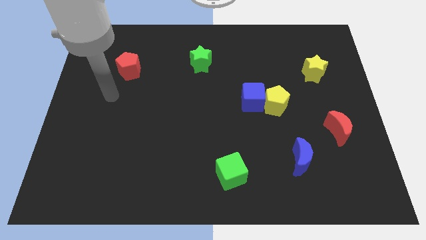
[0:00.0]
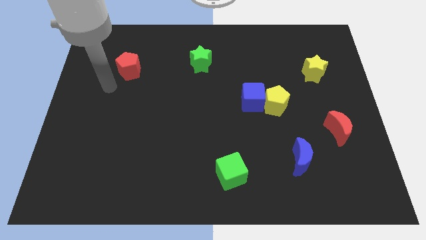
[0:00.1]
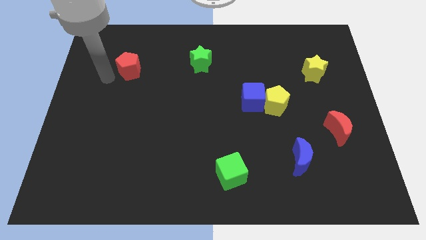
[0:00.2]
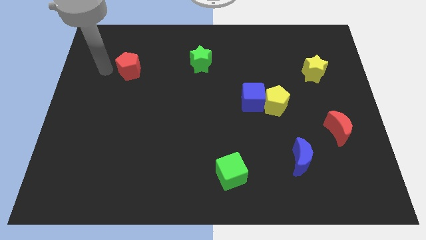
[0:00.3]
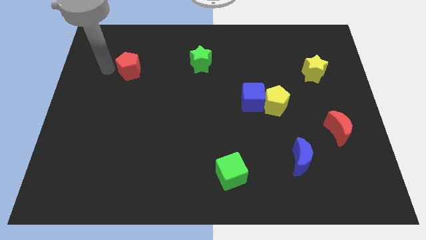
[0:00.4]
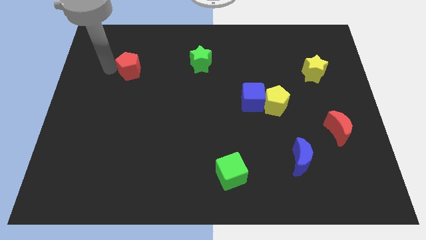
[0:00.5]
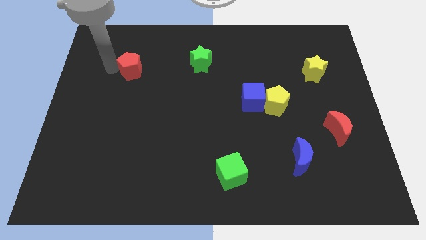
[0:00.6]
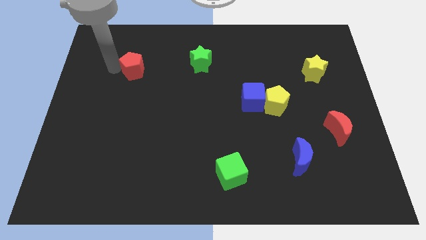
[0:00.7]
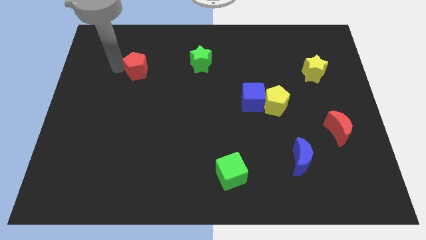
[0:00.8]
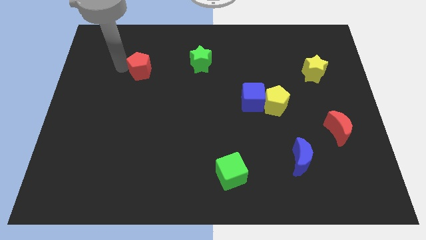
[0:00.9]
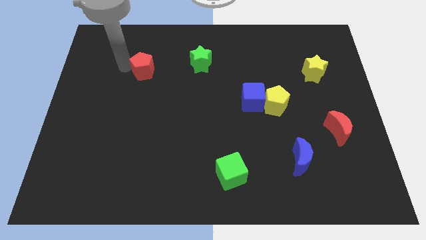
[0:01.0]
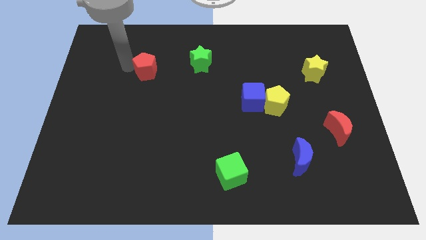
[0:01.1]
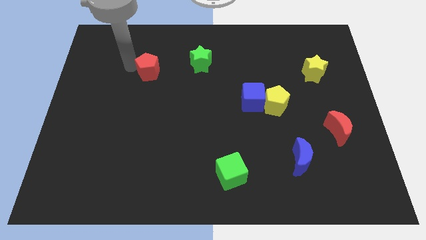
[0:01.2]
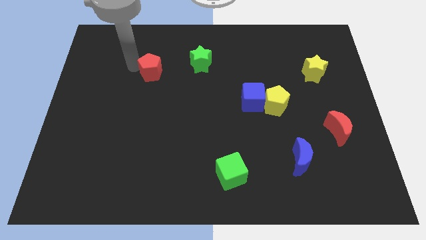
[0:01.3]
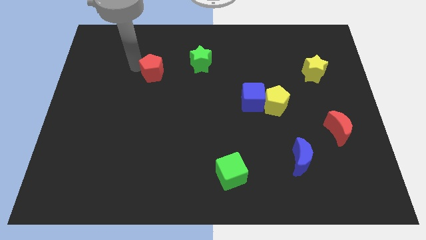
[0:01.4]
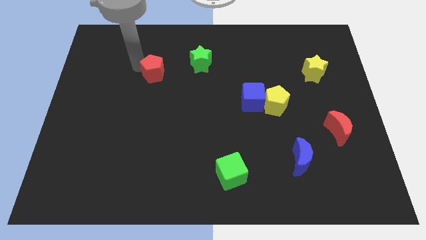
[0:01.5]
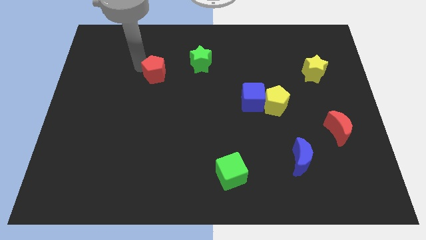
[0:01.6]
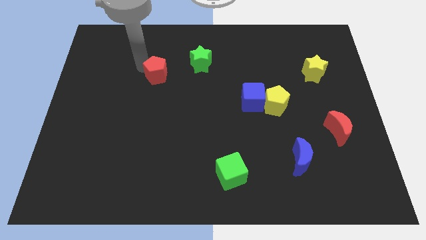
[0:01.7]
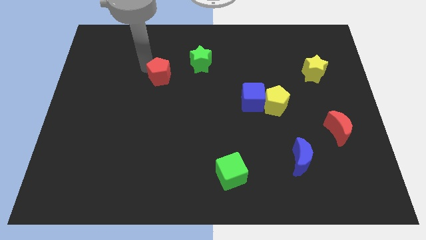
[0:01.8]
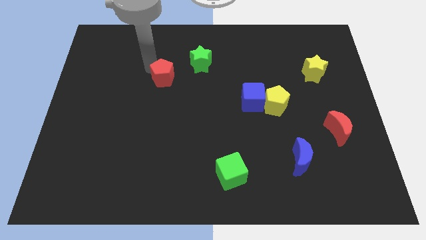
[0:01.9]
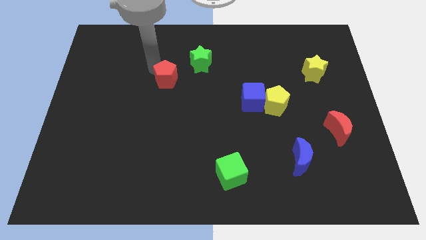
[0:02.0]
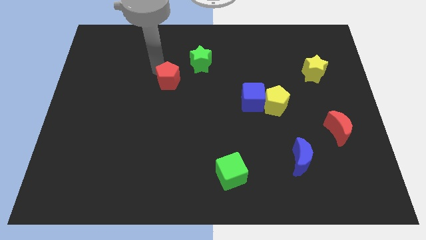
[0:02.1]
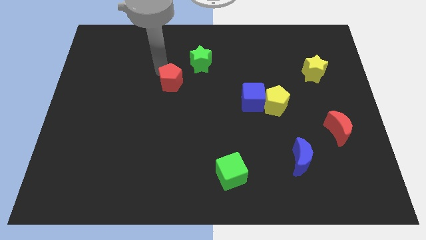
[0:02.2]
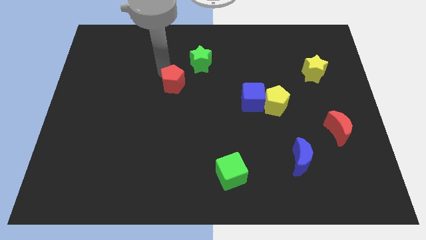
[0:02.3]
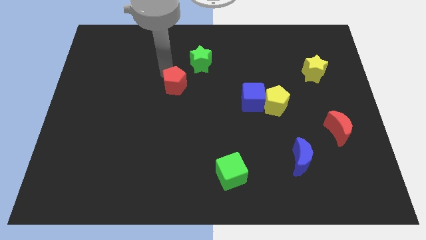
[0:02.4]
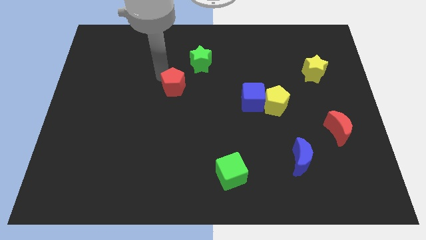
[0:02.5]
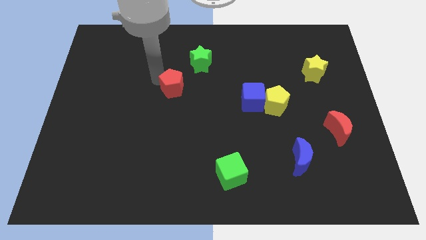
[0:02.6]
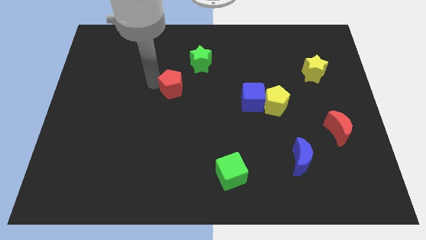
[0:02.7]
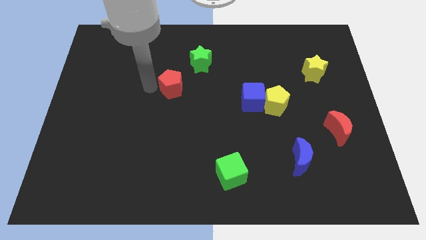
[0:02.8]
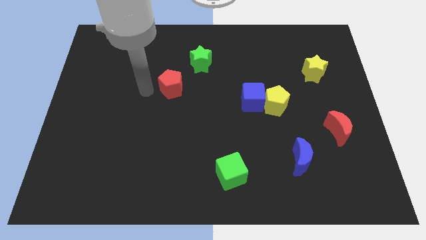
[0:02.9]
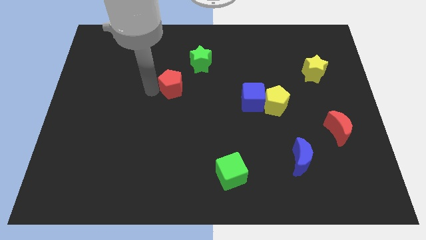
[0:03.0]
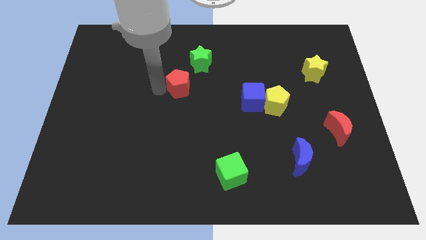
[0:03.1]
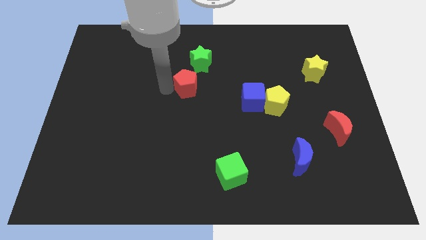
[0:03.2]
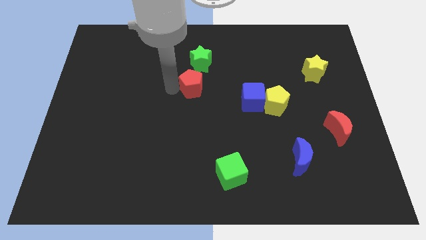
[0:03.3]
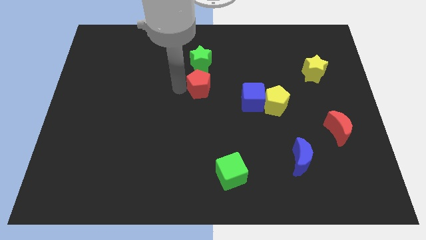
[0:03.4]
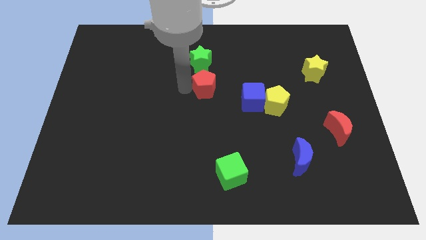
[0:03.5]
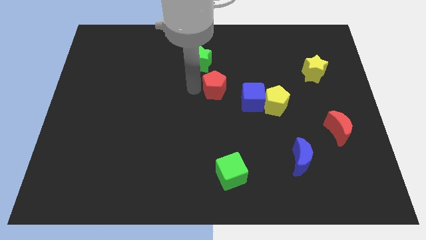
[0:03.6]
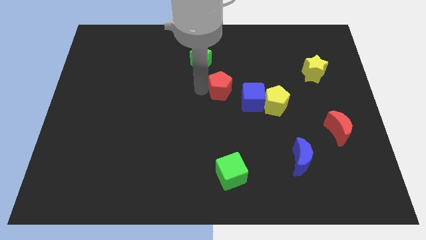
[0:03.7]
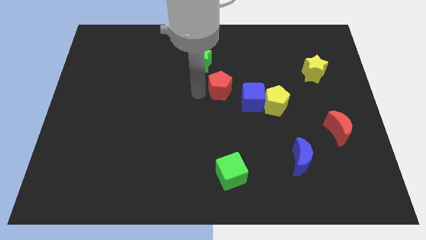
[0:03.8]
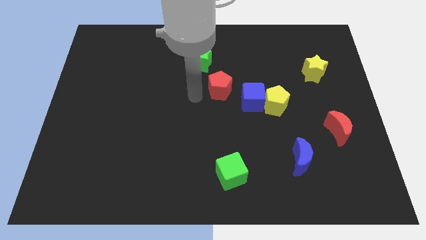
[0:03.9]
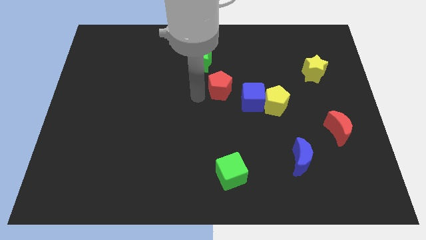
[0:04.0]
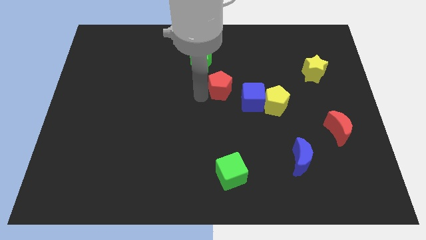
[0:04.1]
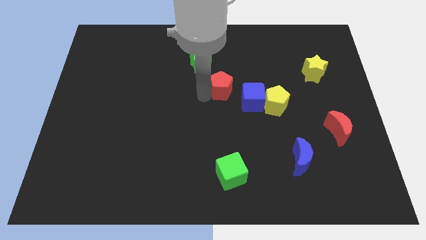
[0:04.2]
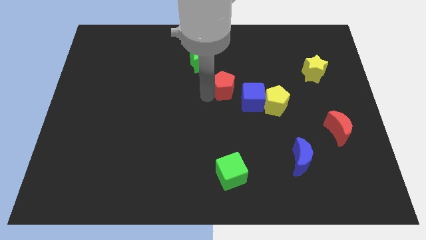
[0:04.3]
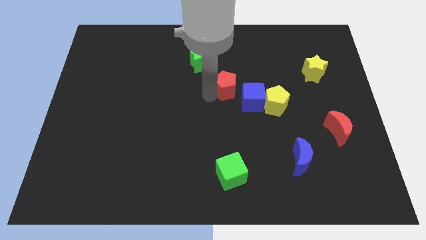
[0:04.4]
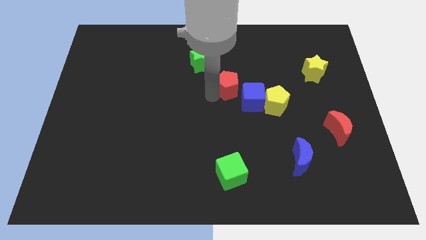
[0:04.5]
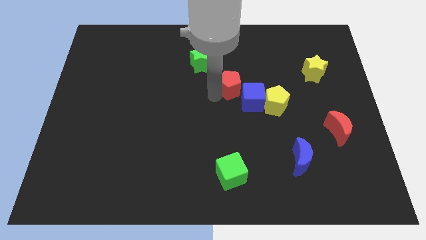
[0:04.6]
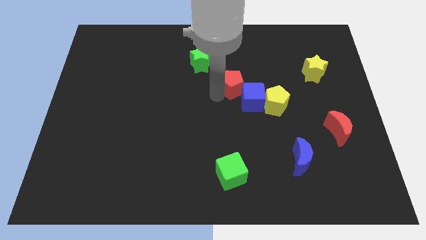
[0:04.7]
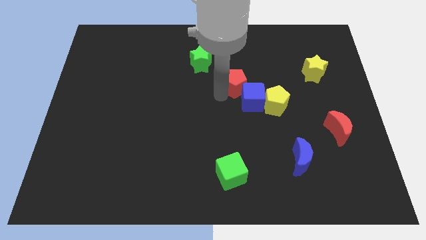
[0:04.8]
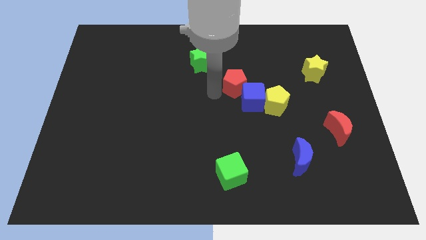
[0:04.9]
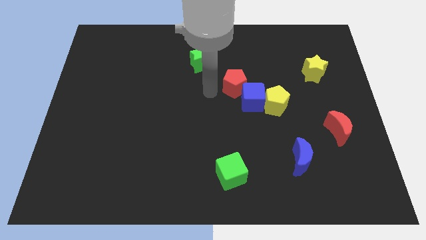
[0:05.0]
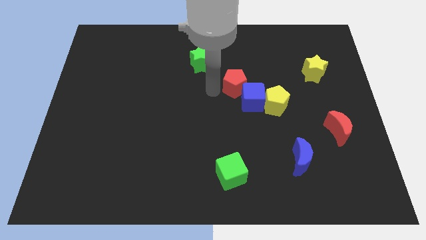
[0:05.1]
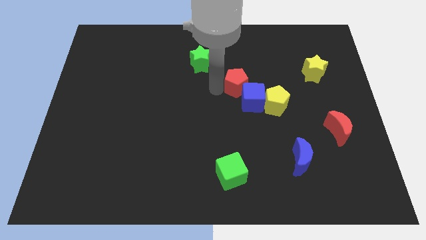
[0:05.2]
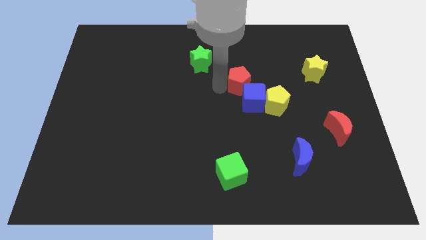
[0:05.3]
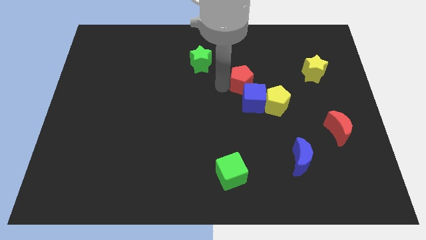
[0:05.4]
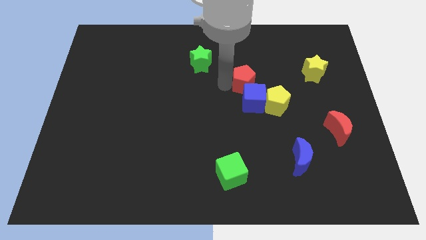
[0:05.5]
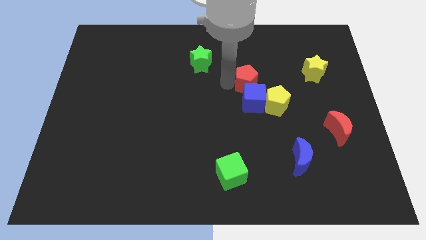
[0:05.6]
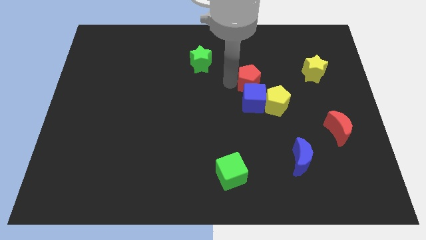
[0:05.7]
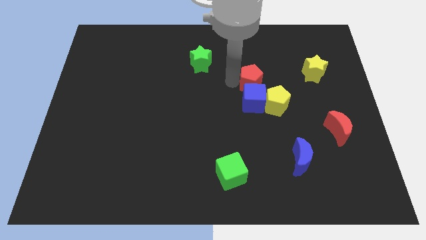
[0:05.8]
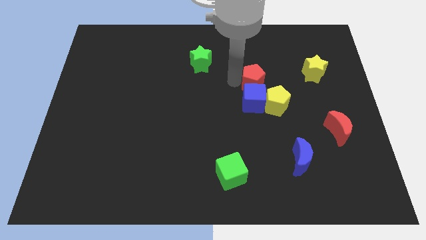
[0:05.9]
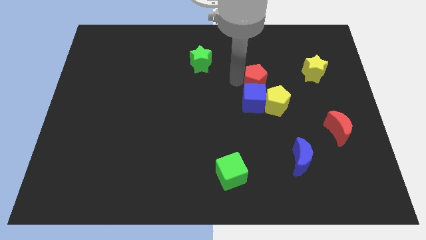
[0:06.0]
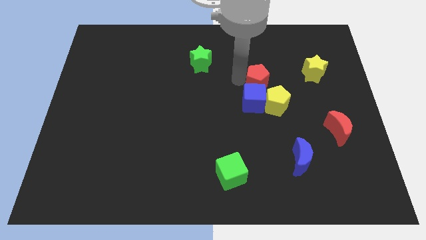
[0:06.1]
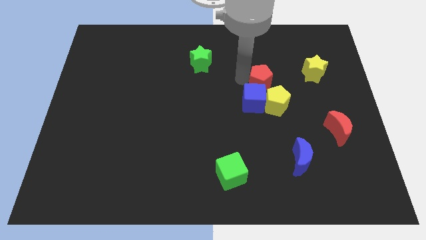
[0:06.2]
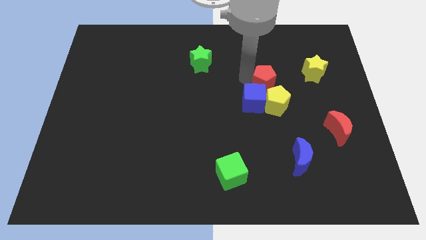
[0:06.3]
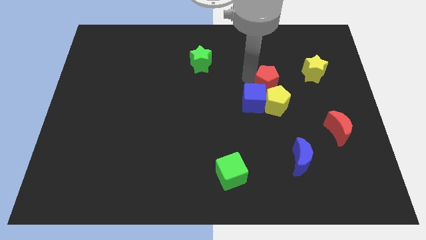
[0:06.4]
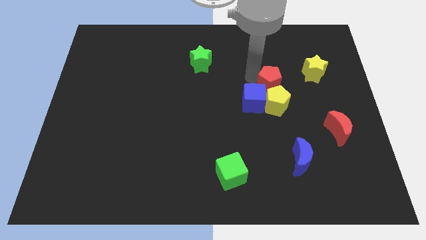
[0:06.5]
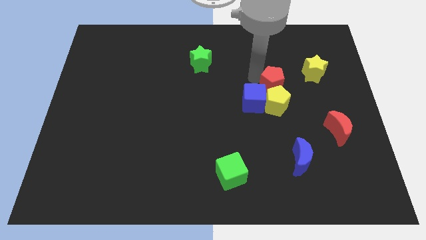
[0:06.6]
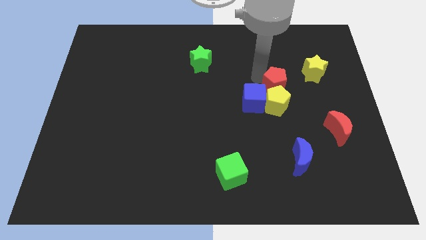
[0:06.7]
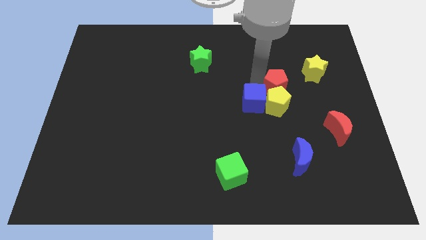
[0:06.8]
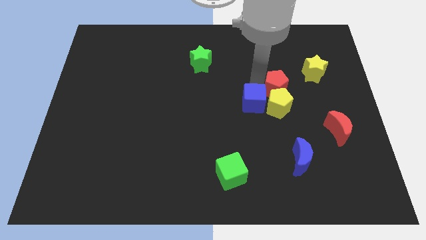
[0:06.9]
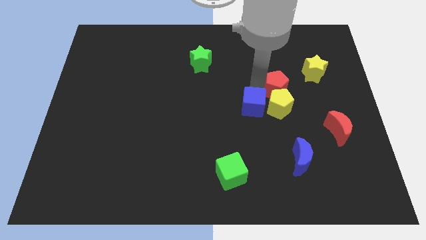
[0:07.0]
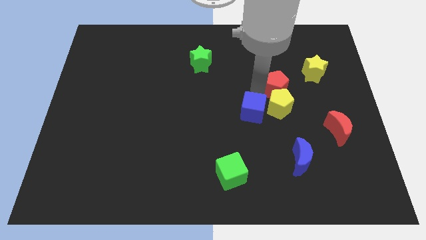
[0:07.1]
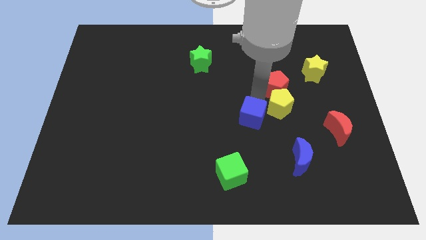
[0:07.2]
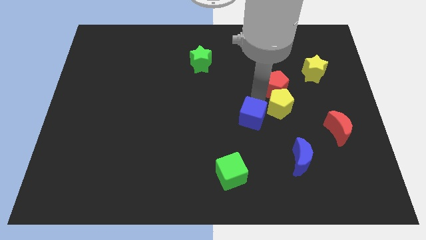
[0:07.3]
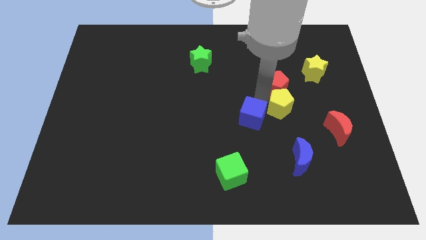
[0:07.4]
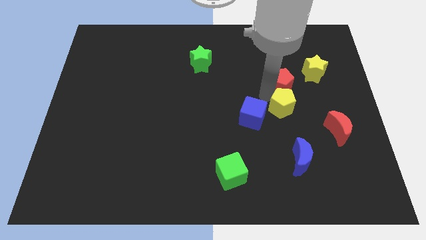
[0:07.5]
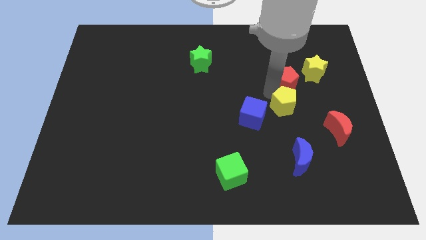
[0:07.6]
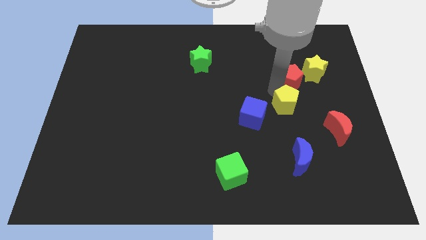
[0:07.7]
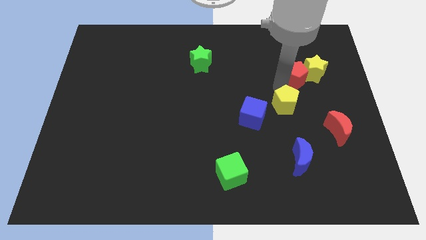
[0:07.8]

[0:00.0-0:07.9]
move the red pentagon to the yellow star
